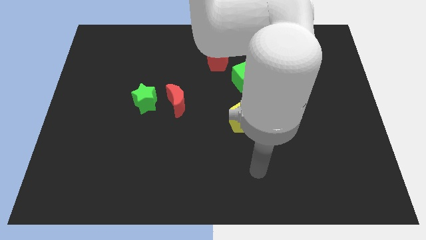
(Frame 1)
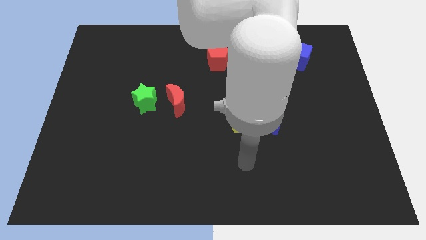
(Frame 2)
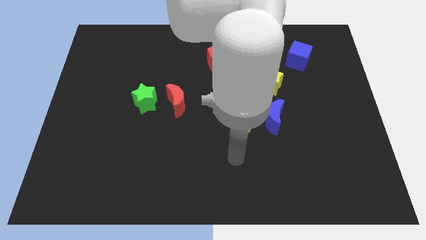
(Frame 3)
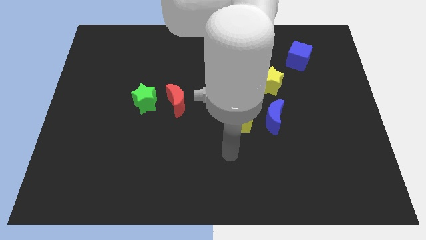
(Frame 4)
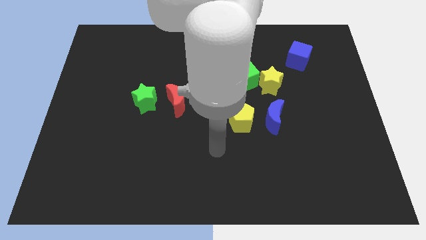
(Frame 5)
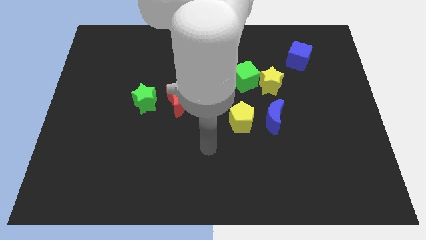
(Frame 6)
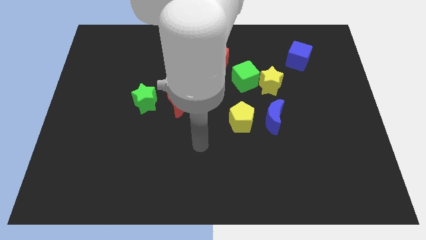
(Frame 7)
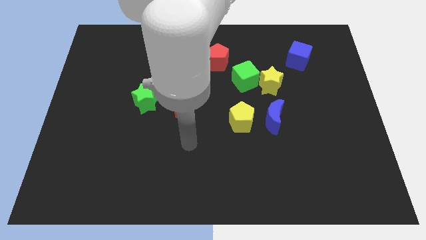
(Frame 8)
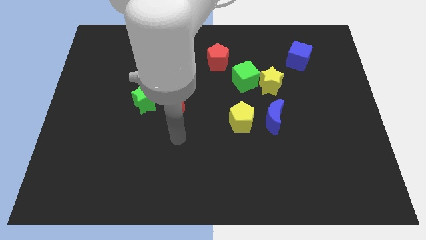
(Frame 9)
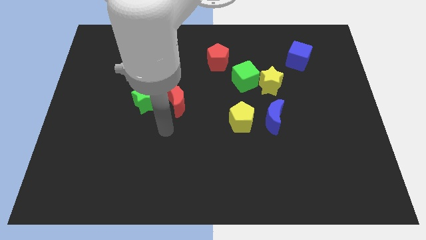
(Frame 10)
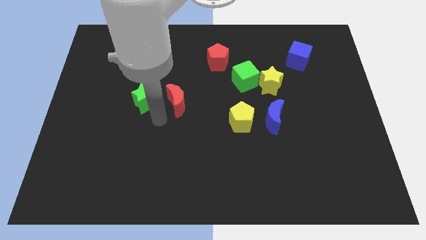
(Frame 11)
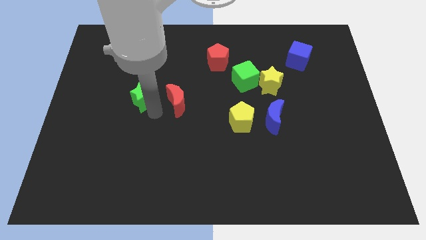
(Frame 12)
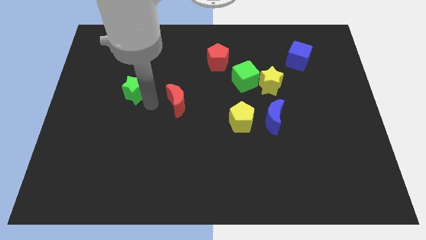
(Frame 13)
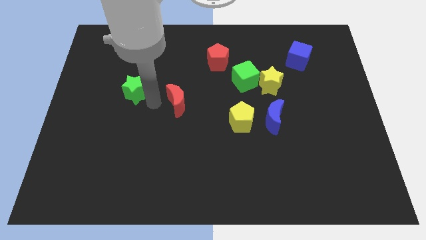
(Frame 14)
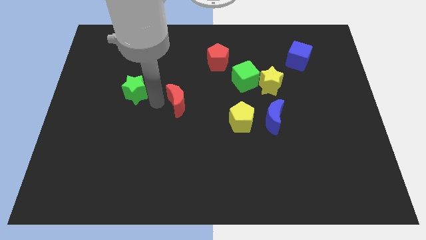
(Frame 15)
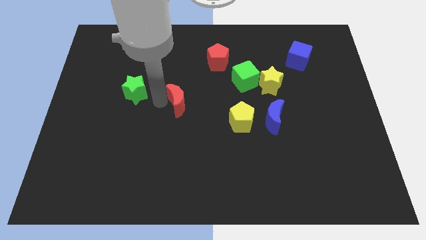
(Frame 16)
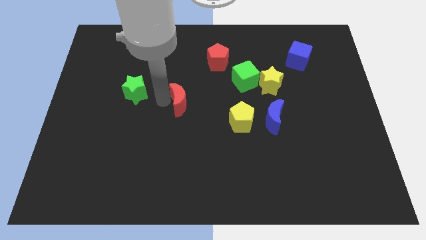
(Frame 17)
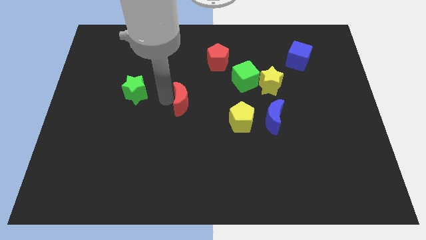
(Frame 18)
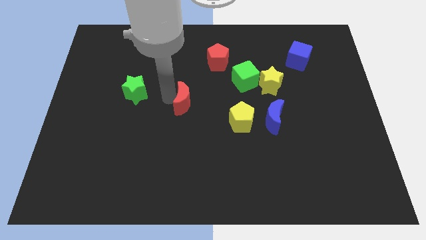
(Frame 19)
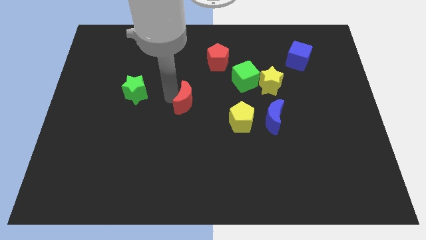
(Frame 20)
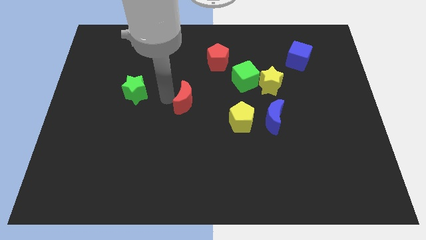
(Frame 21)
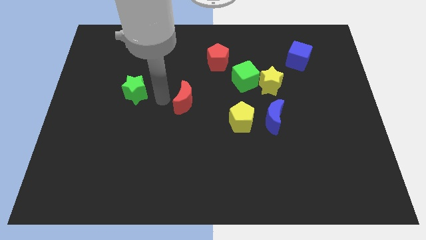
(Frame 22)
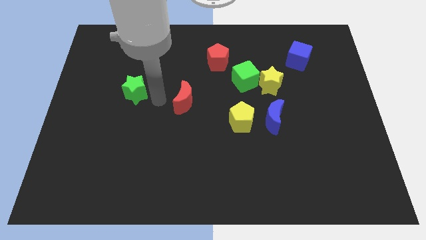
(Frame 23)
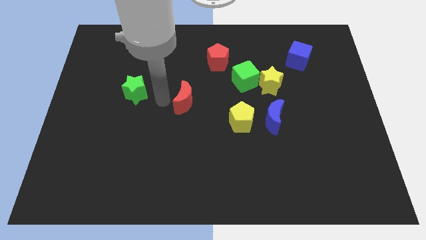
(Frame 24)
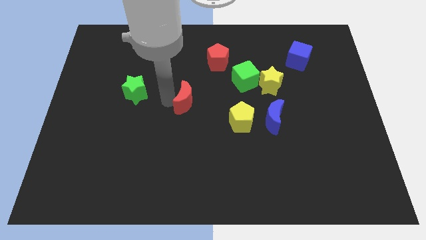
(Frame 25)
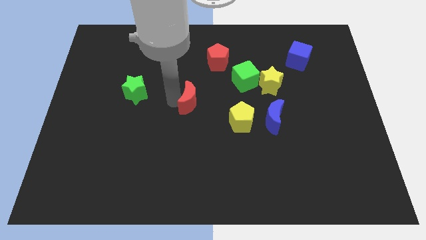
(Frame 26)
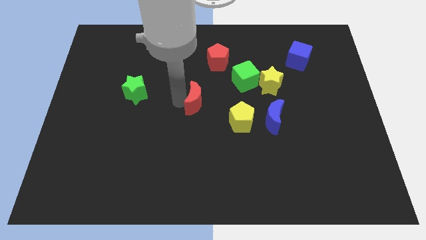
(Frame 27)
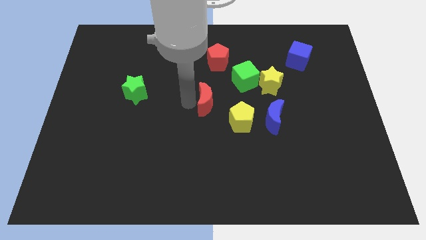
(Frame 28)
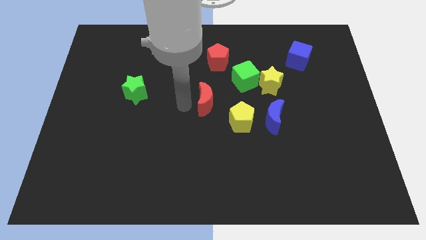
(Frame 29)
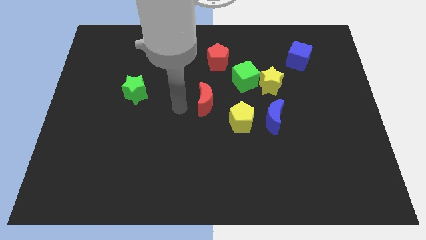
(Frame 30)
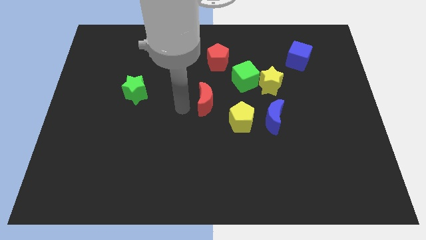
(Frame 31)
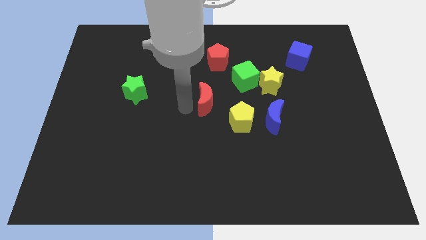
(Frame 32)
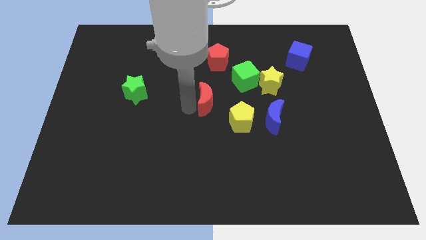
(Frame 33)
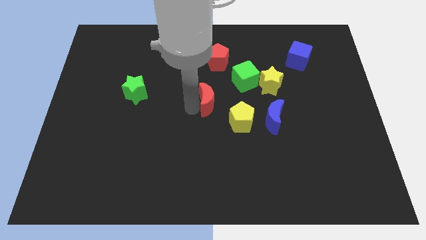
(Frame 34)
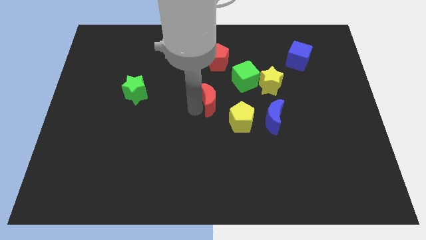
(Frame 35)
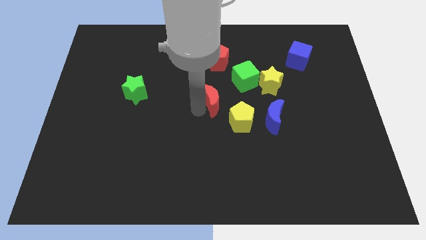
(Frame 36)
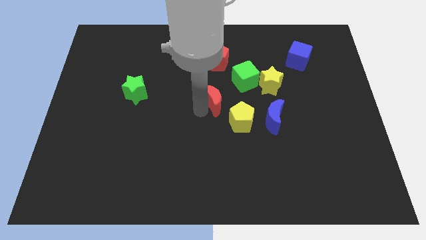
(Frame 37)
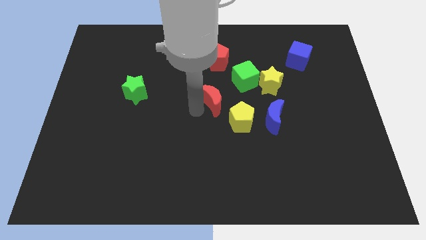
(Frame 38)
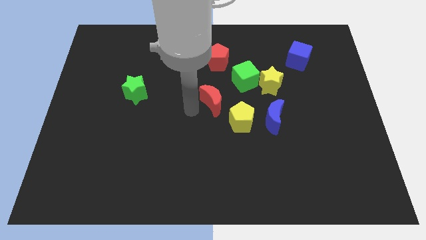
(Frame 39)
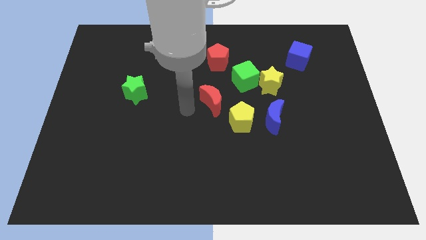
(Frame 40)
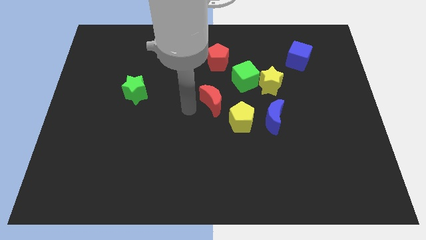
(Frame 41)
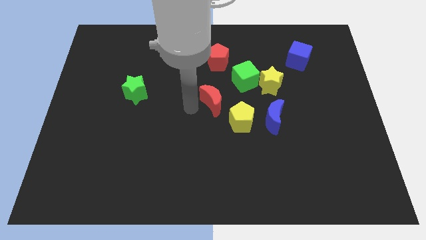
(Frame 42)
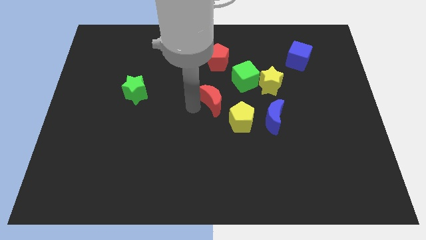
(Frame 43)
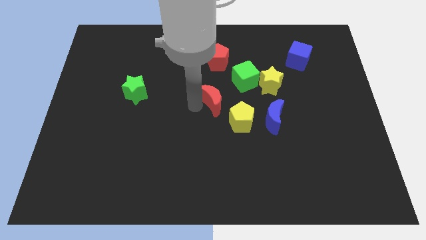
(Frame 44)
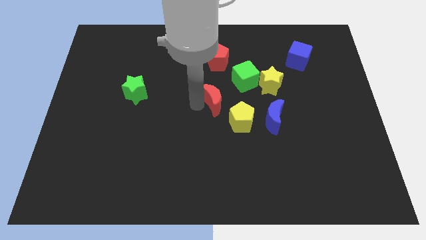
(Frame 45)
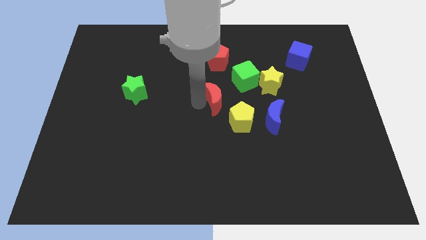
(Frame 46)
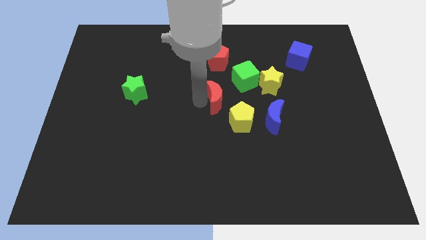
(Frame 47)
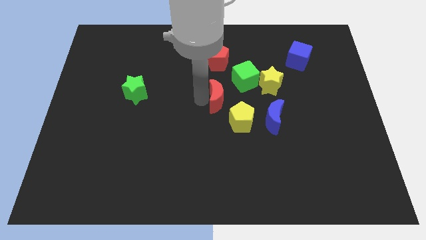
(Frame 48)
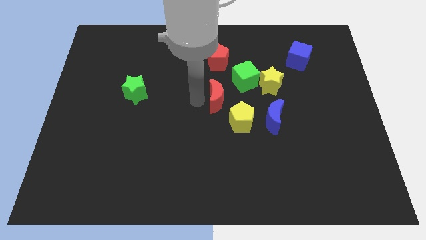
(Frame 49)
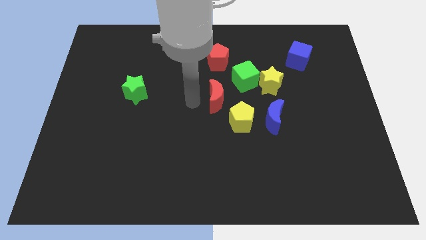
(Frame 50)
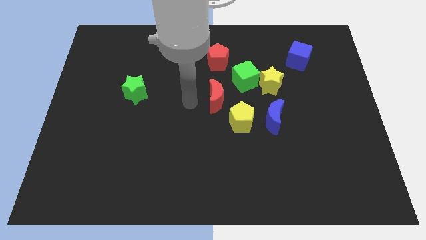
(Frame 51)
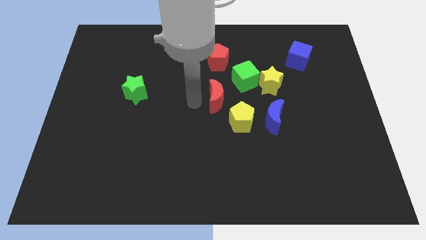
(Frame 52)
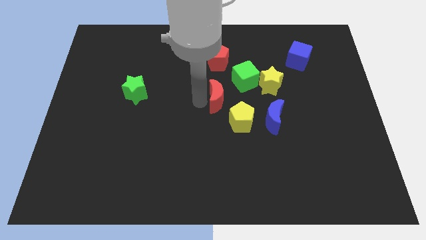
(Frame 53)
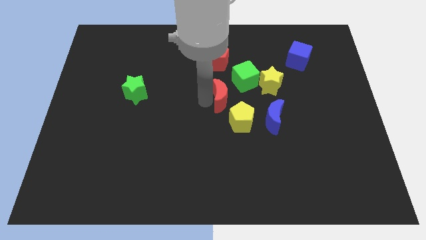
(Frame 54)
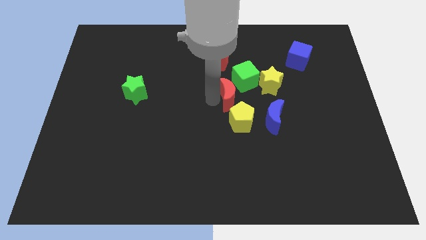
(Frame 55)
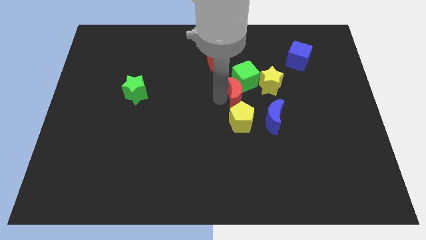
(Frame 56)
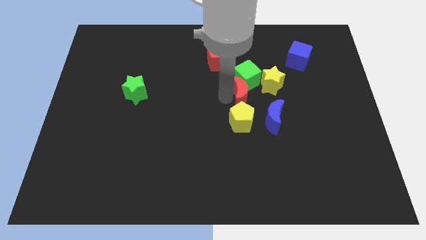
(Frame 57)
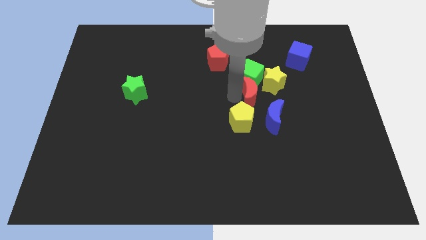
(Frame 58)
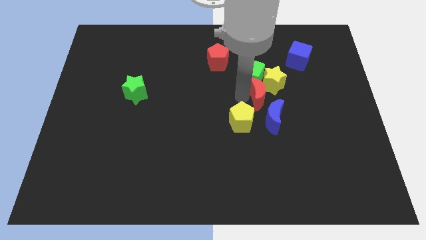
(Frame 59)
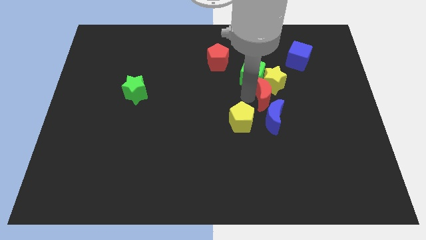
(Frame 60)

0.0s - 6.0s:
move the red moon right

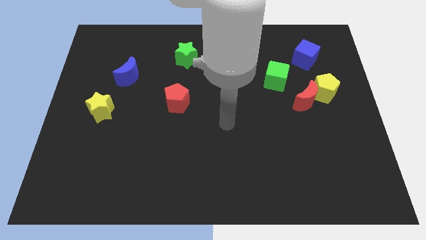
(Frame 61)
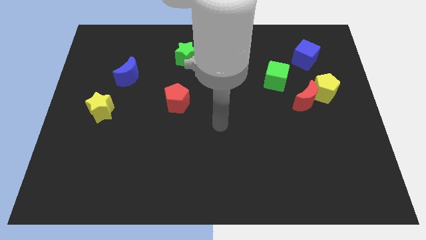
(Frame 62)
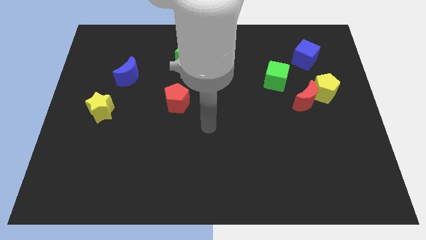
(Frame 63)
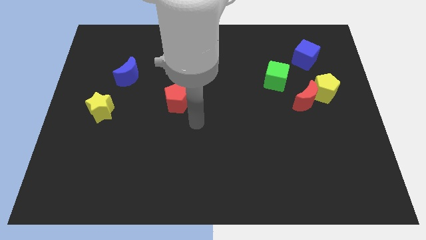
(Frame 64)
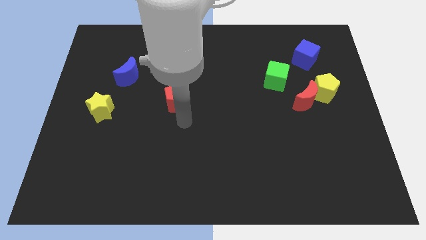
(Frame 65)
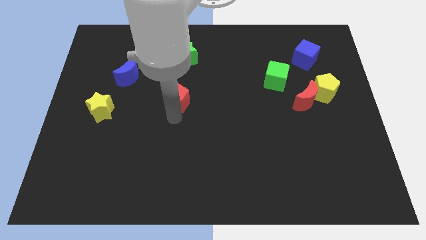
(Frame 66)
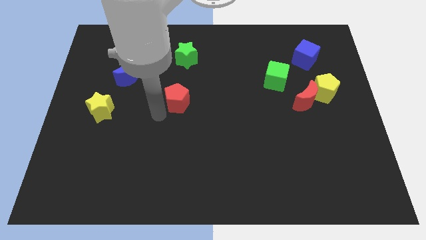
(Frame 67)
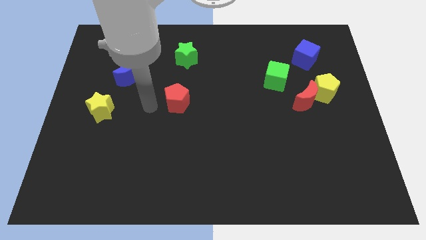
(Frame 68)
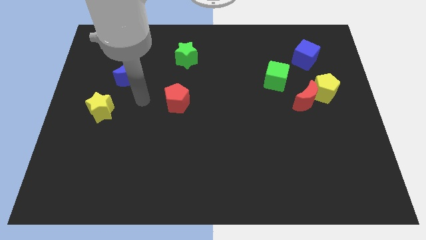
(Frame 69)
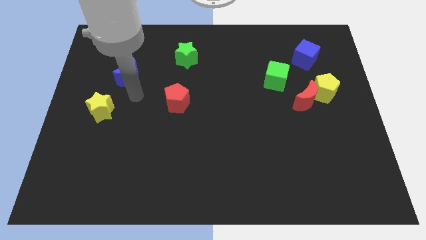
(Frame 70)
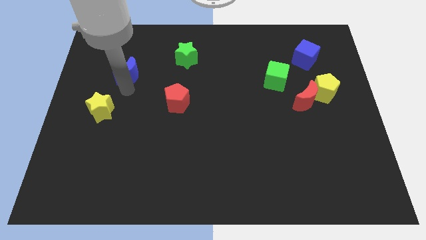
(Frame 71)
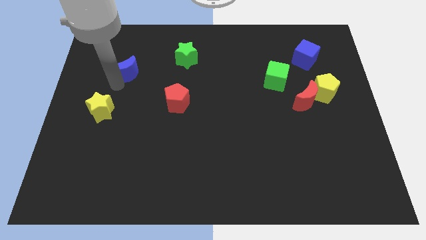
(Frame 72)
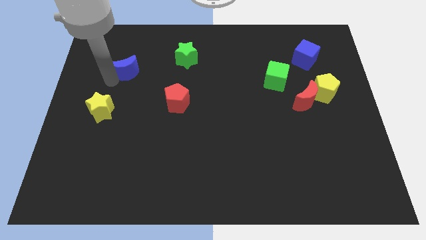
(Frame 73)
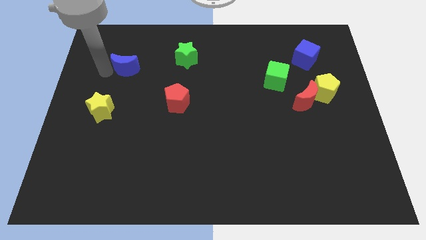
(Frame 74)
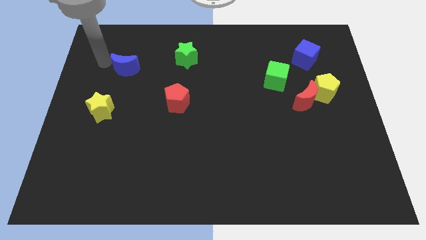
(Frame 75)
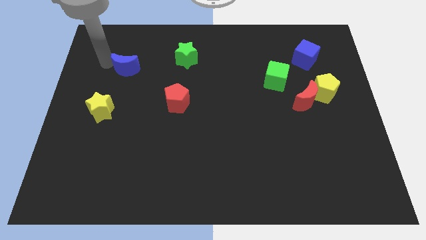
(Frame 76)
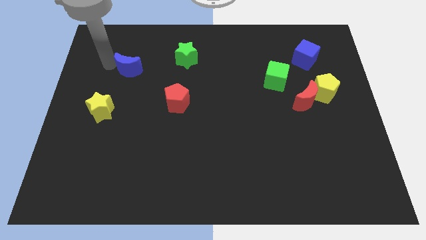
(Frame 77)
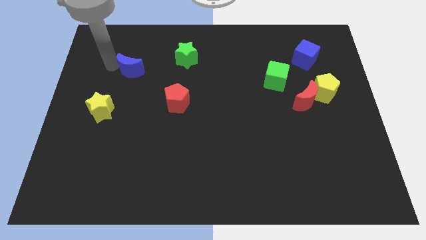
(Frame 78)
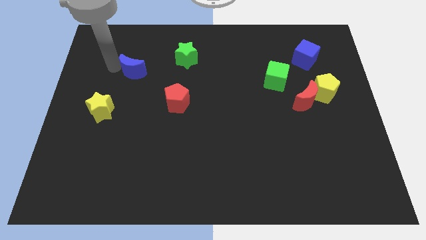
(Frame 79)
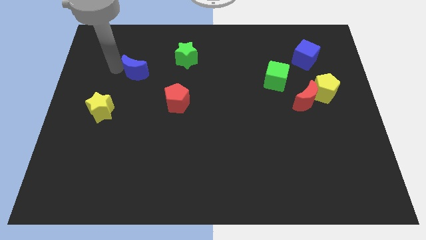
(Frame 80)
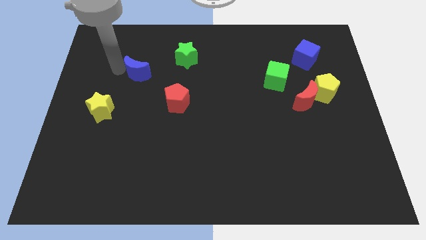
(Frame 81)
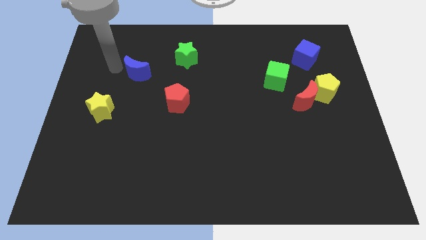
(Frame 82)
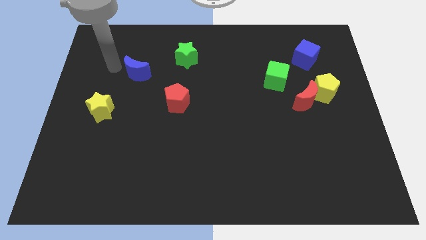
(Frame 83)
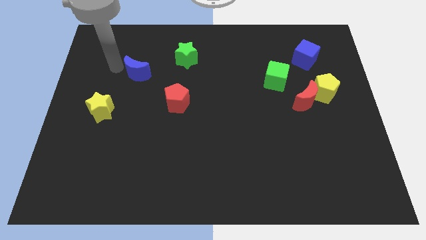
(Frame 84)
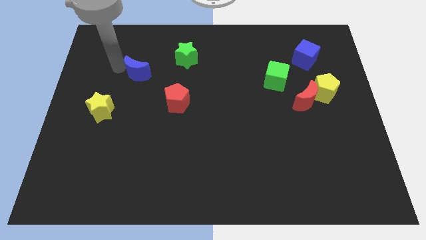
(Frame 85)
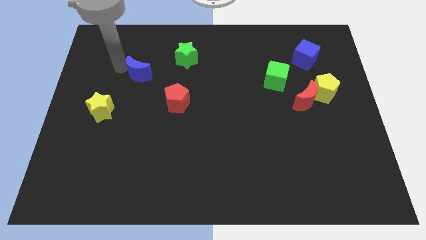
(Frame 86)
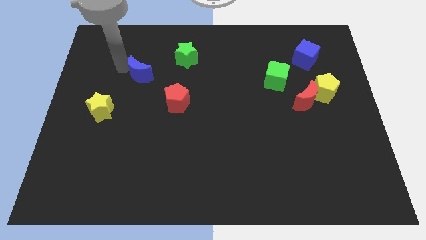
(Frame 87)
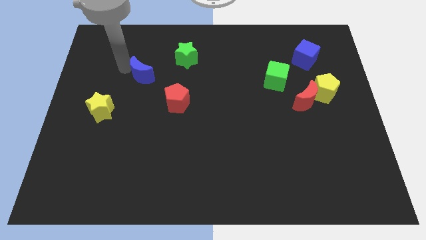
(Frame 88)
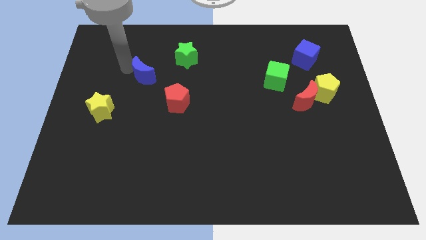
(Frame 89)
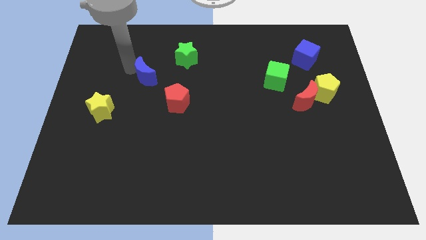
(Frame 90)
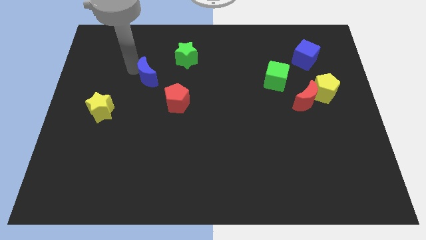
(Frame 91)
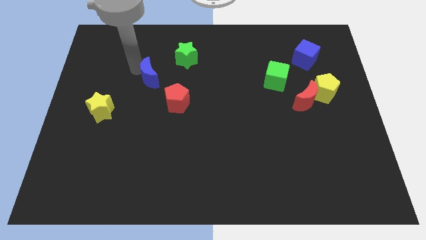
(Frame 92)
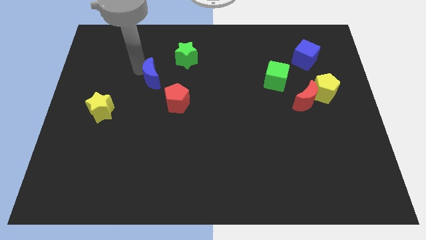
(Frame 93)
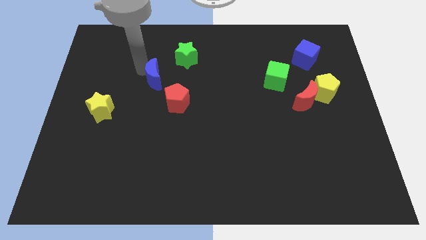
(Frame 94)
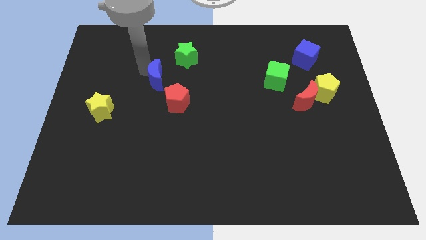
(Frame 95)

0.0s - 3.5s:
slightly move the blue moon to the right
